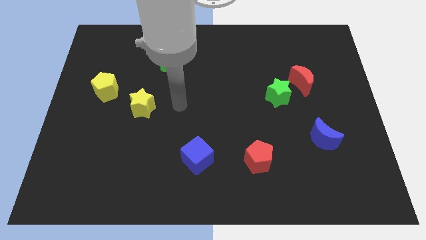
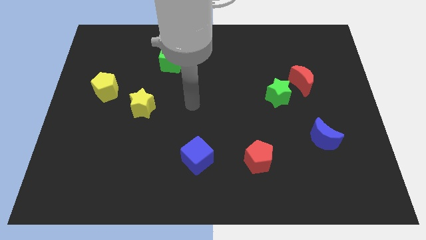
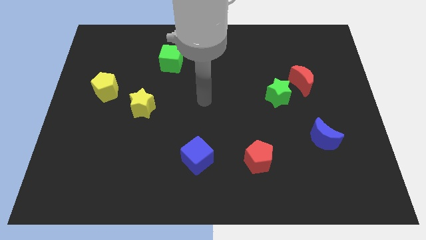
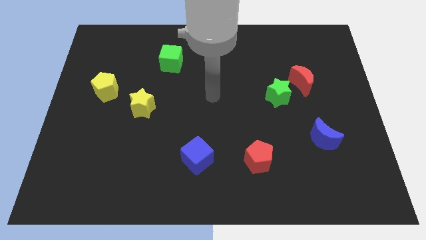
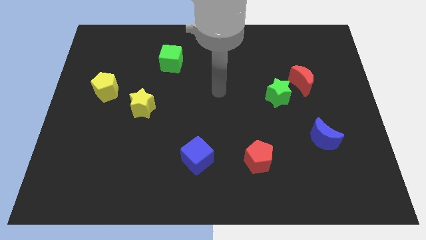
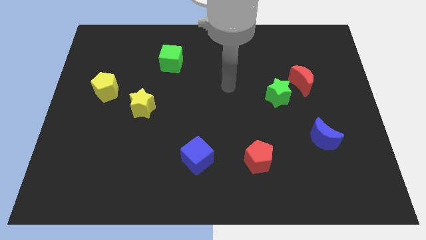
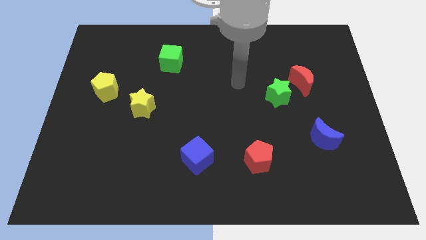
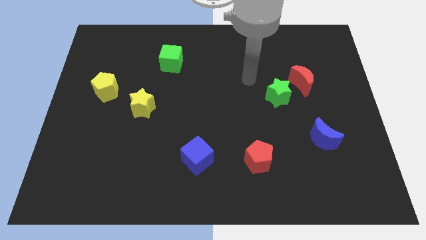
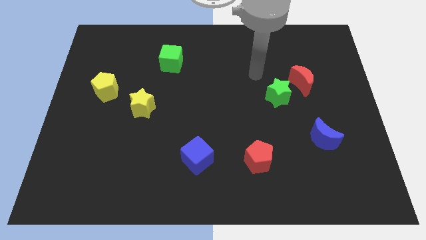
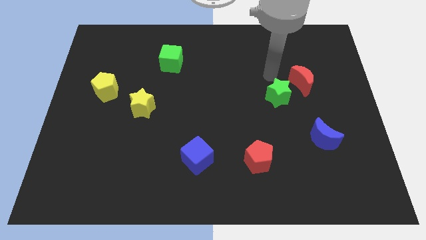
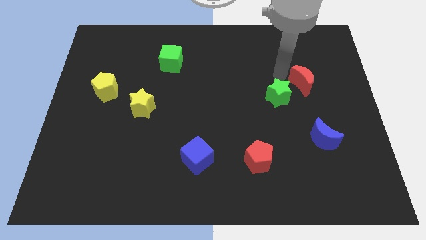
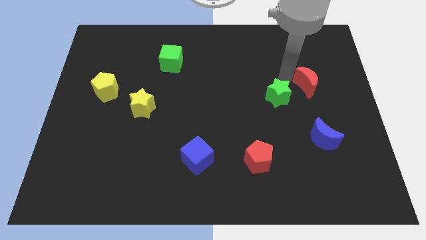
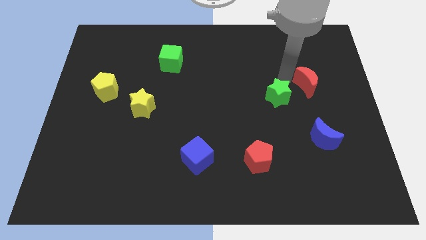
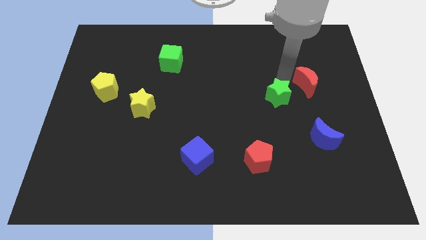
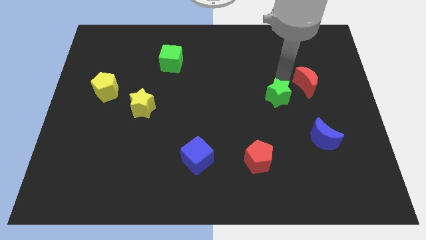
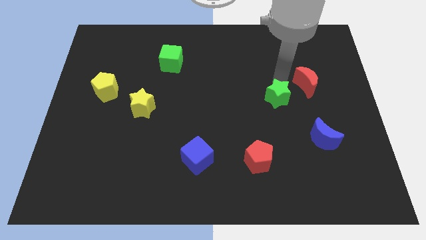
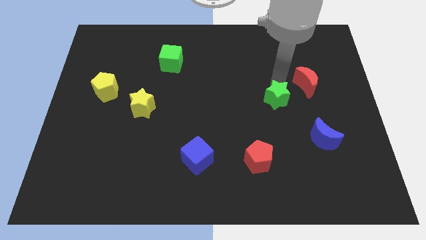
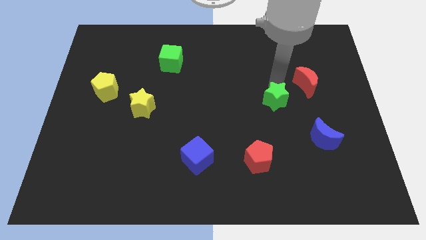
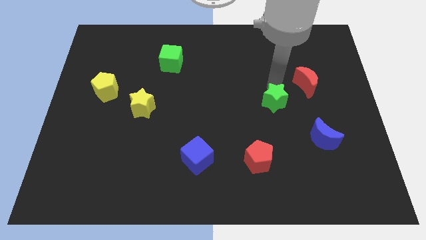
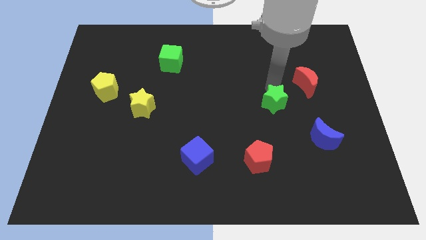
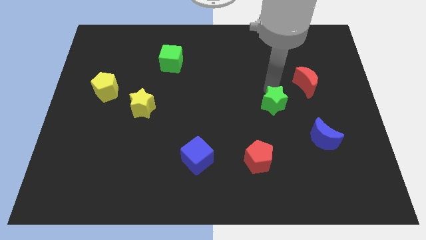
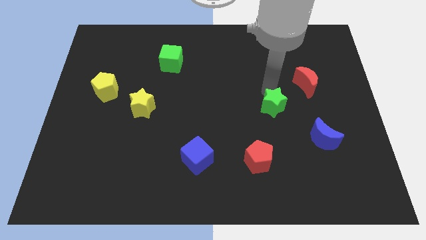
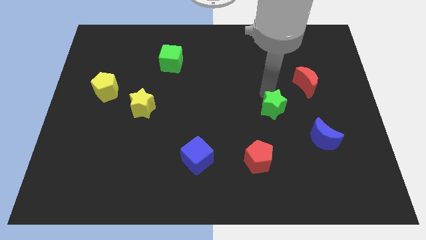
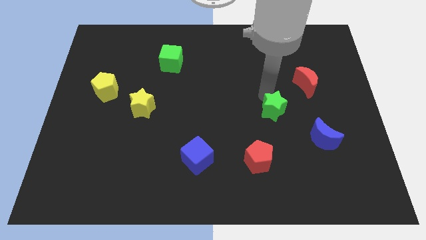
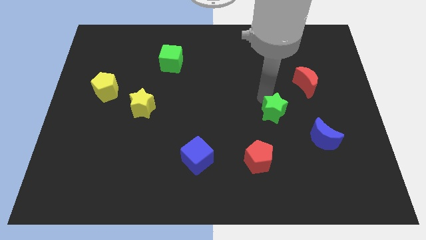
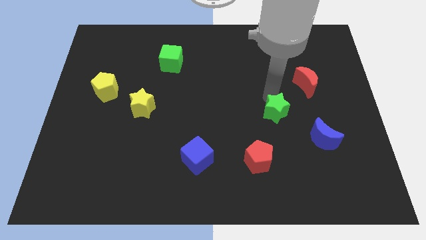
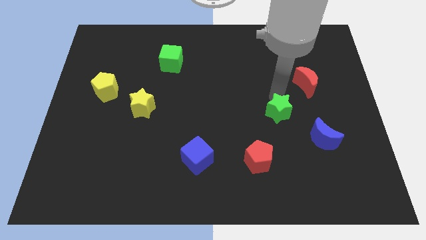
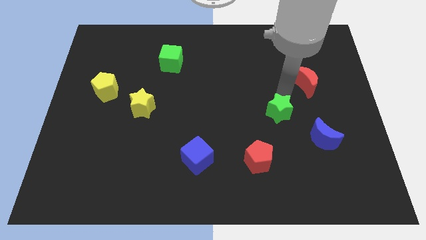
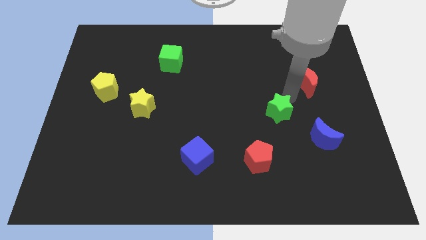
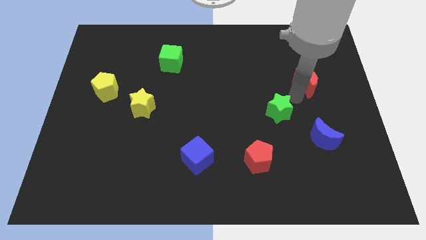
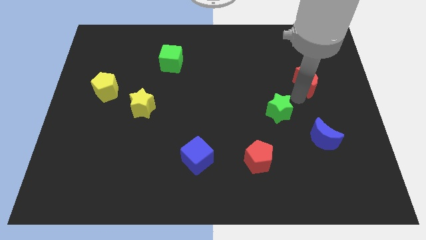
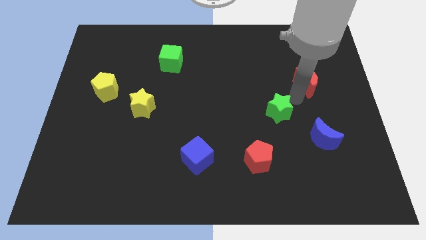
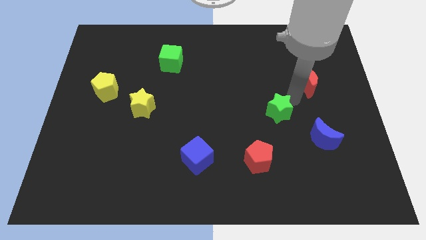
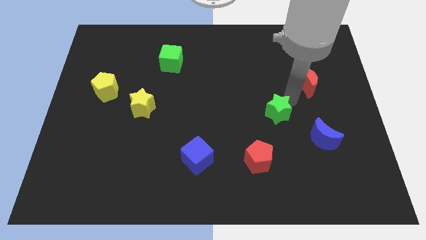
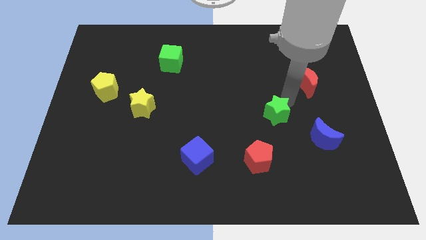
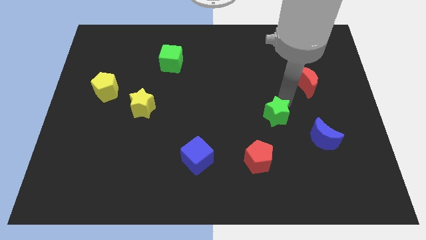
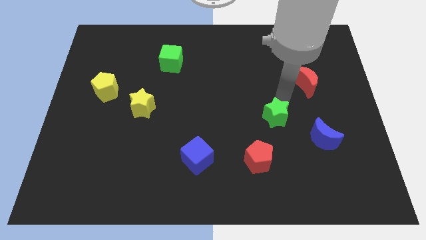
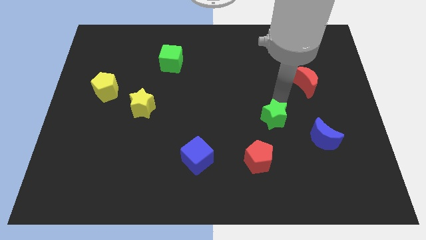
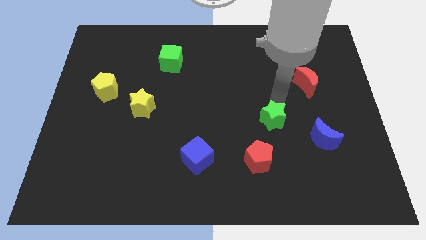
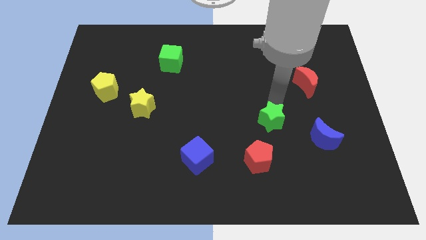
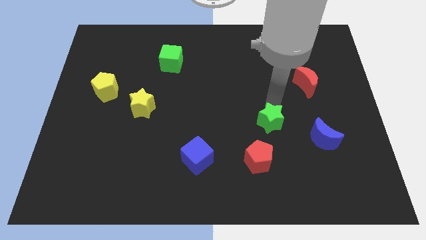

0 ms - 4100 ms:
slightly slide the green star diagonally downwards and left

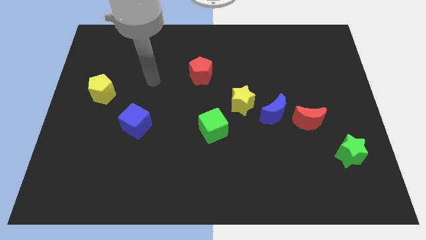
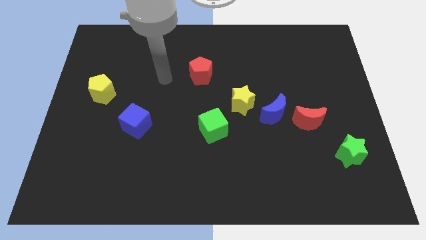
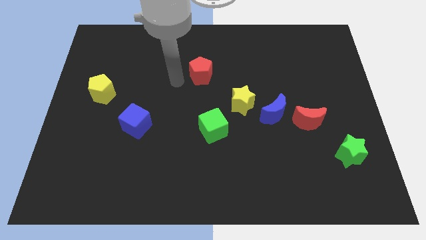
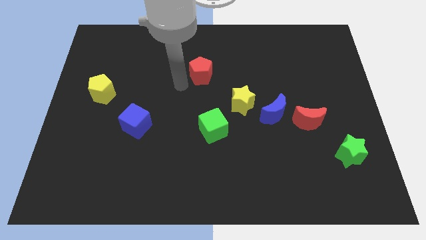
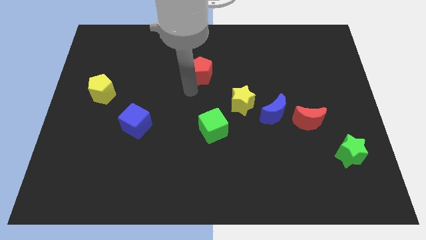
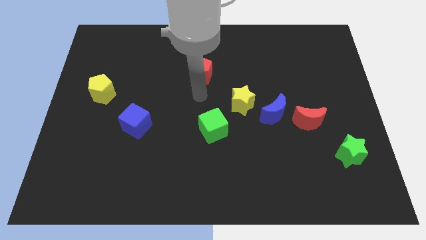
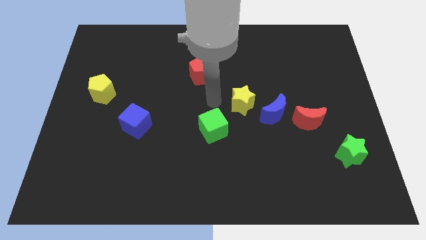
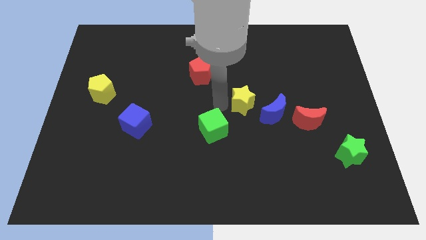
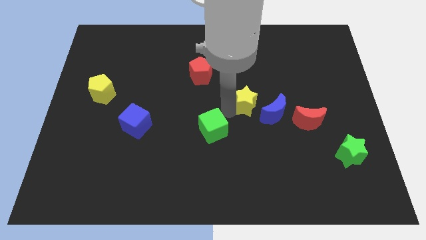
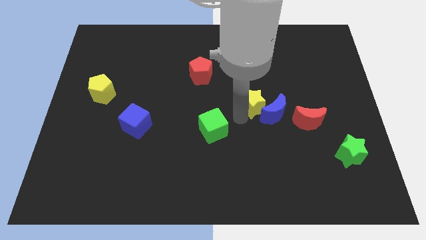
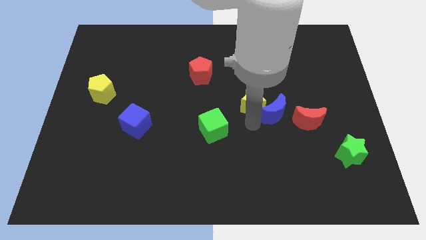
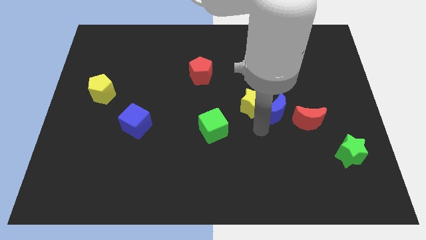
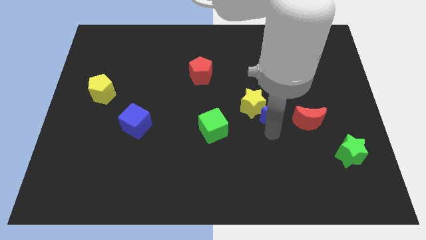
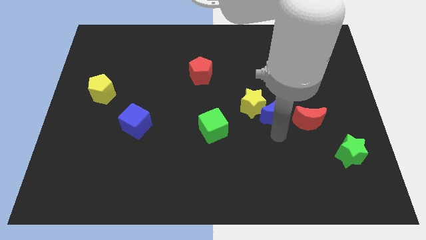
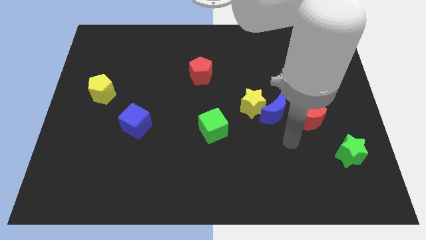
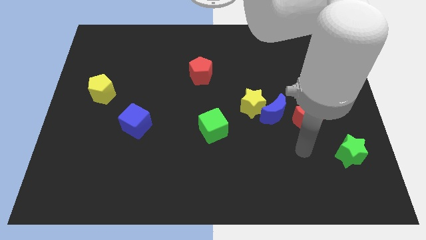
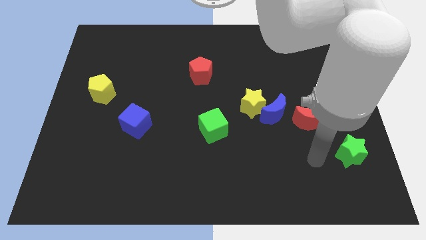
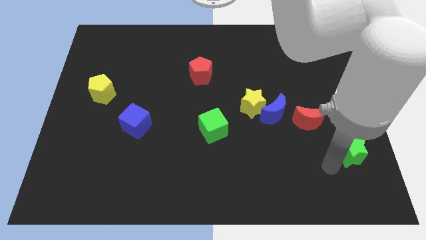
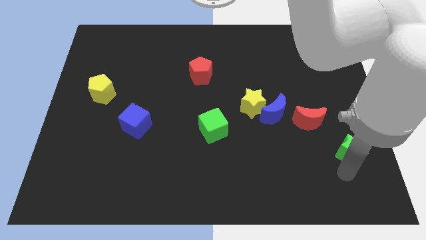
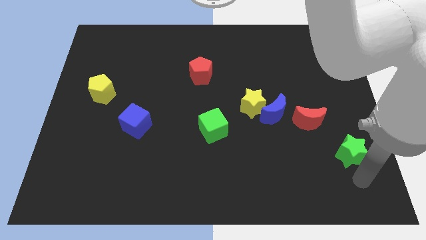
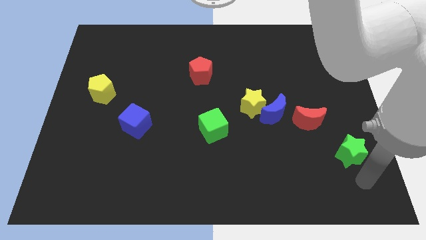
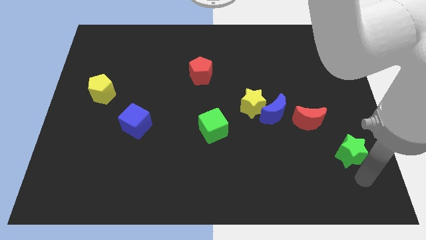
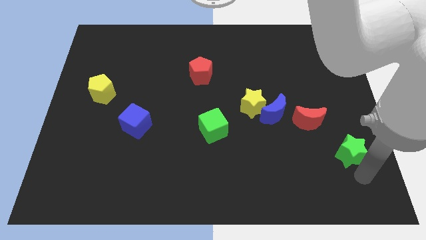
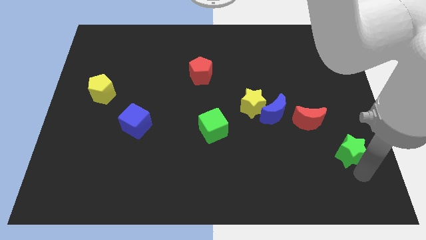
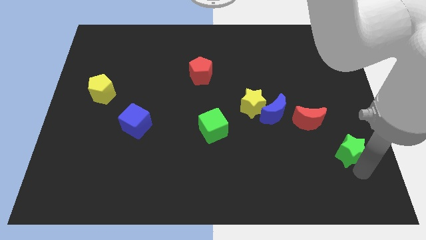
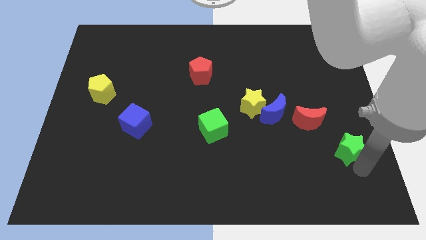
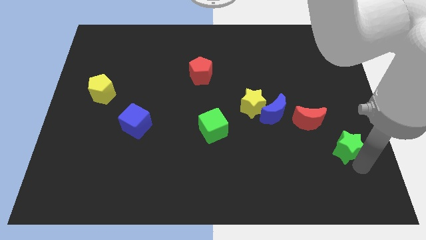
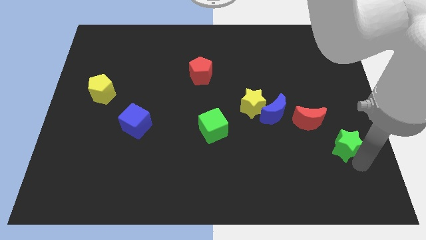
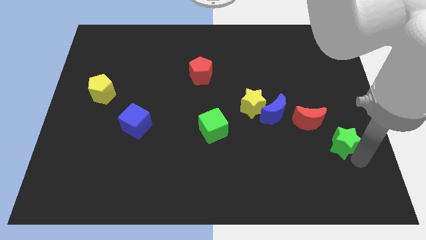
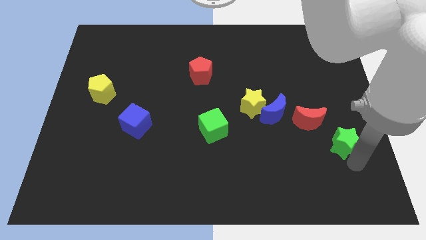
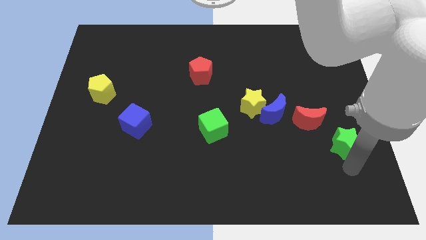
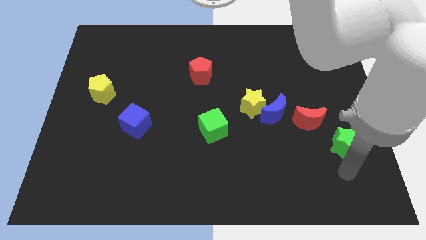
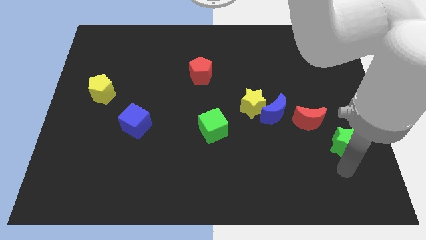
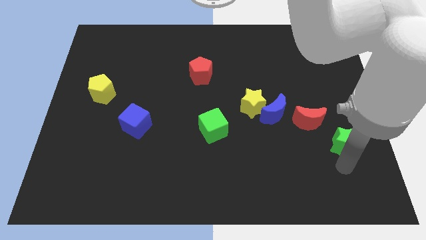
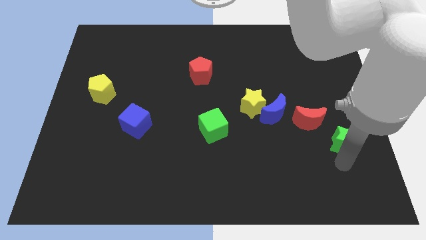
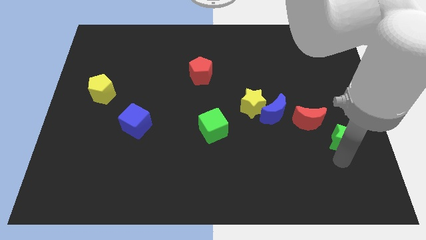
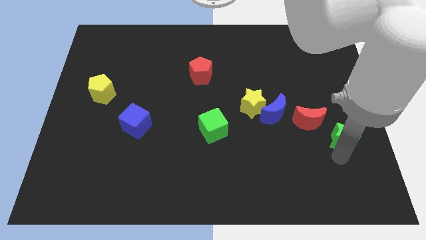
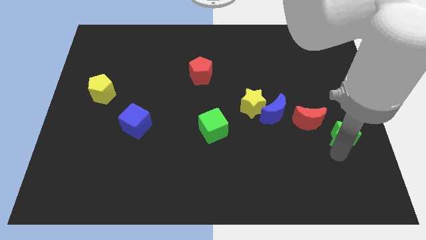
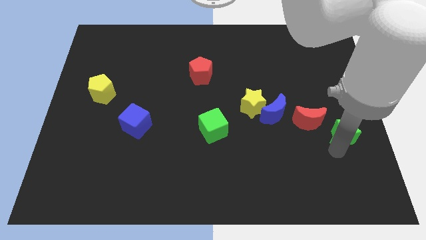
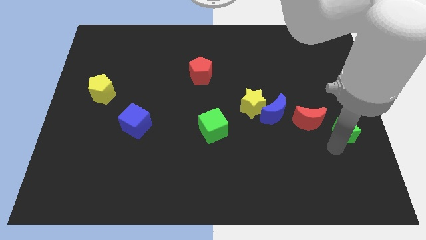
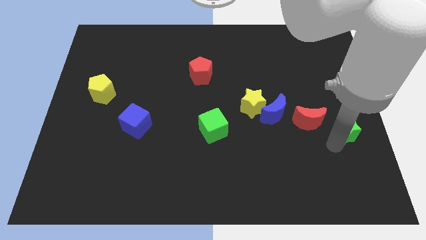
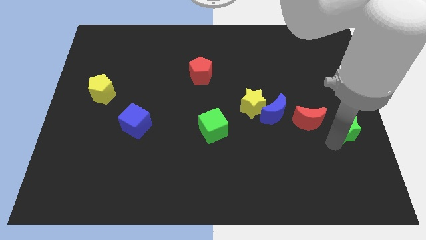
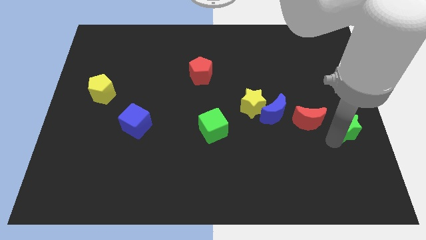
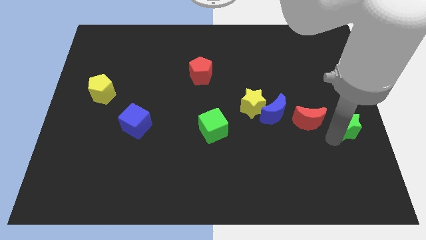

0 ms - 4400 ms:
slide the green star up a little bit
